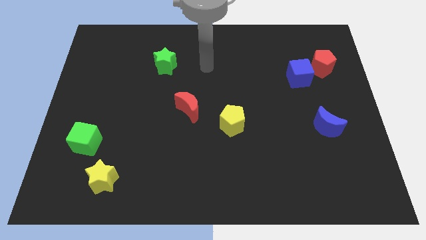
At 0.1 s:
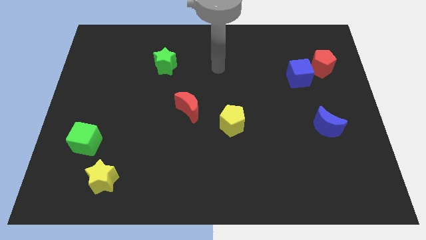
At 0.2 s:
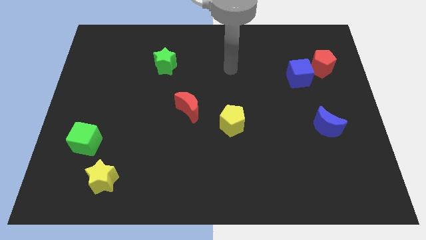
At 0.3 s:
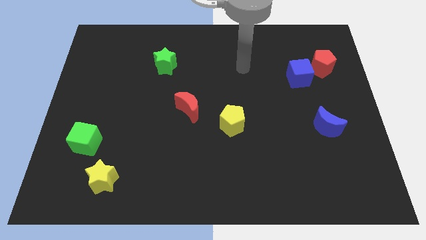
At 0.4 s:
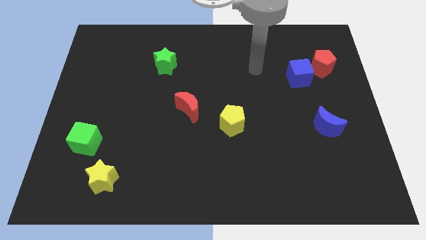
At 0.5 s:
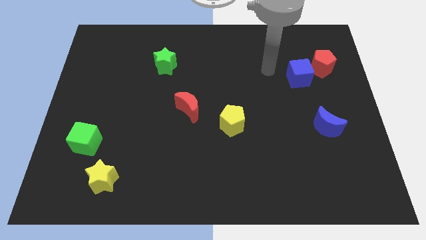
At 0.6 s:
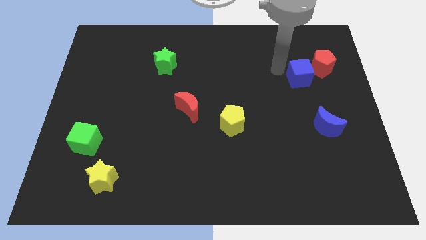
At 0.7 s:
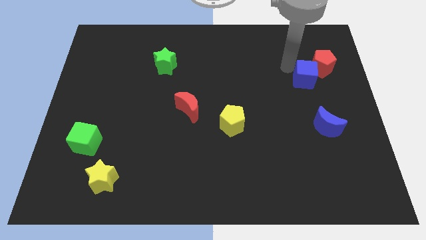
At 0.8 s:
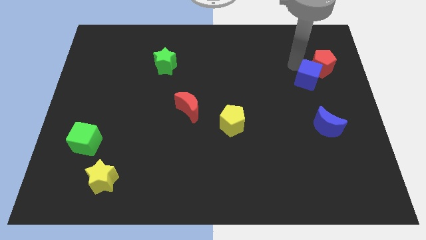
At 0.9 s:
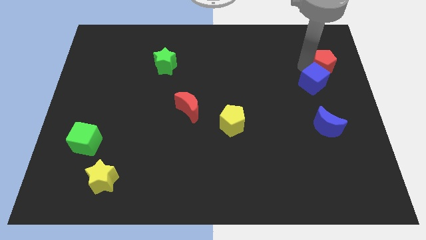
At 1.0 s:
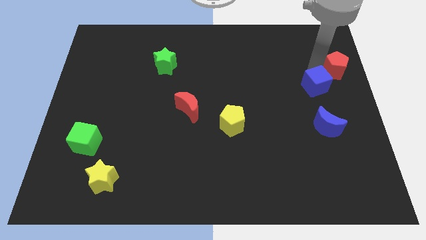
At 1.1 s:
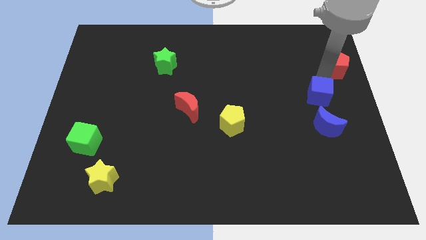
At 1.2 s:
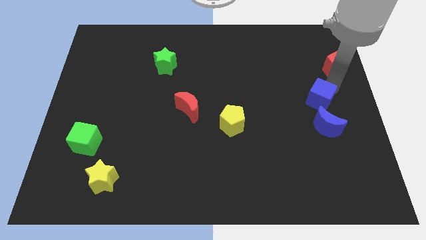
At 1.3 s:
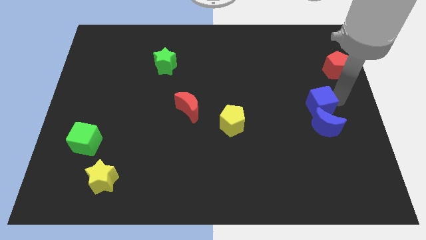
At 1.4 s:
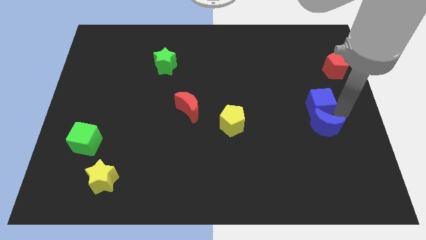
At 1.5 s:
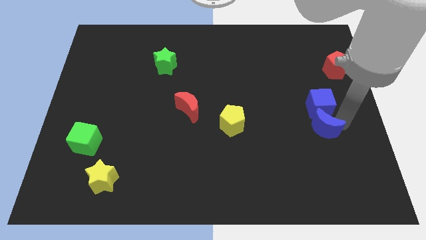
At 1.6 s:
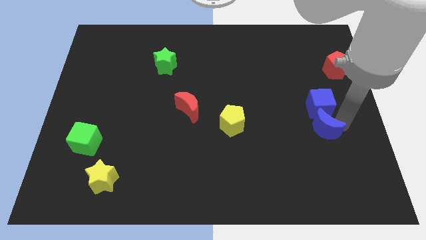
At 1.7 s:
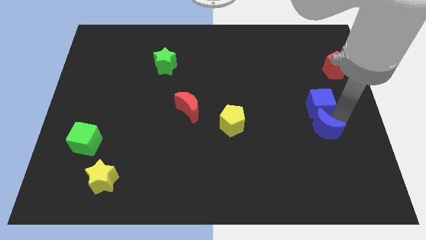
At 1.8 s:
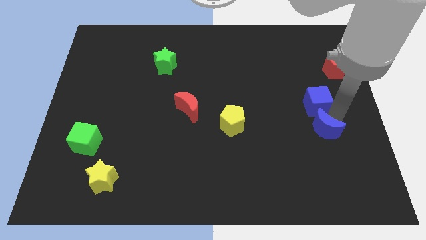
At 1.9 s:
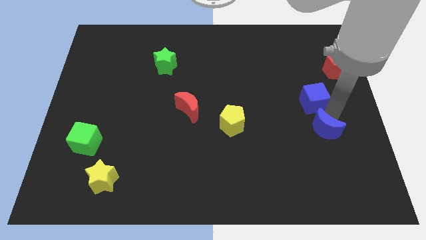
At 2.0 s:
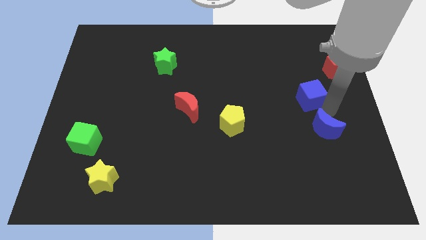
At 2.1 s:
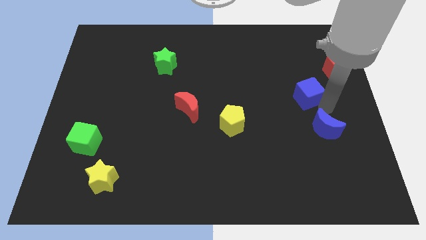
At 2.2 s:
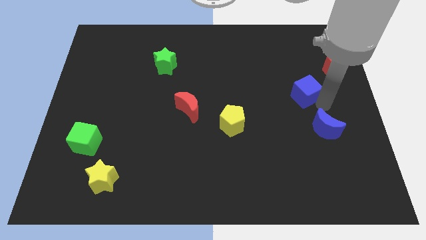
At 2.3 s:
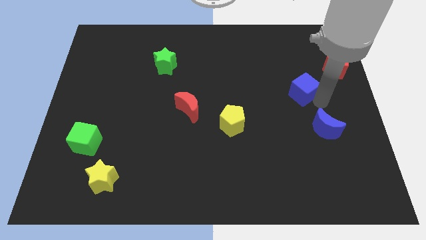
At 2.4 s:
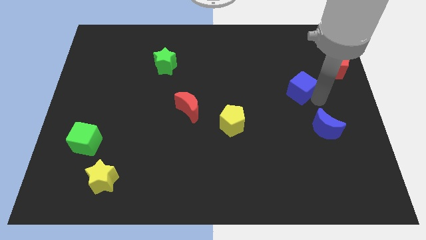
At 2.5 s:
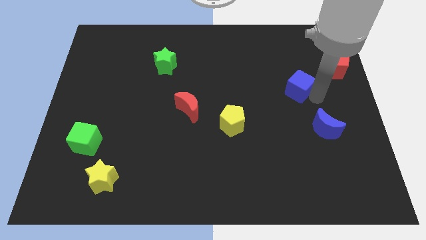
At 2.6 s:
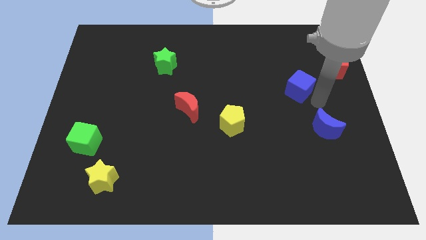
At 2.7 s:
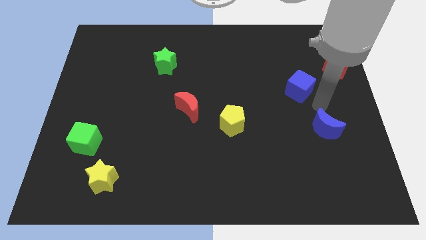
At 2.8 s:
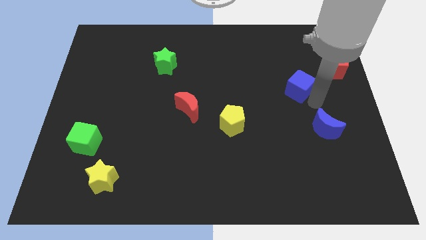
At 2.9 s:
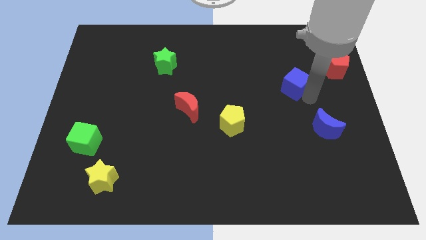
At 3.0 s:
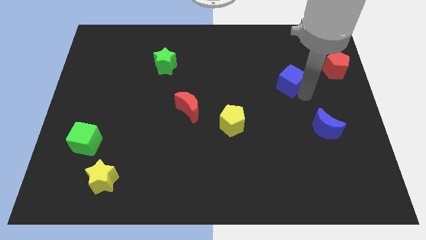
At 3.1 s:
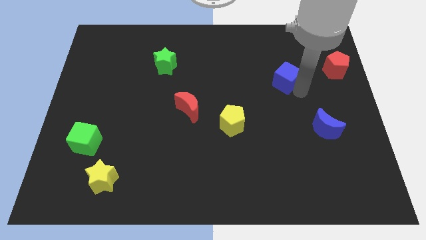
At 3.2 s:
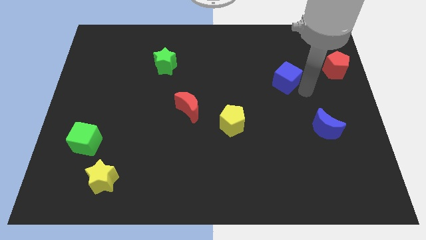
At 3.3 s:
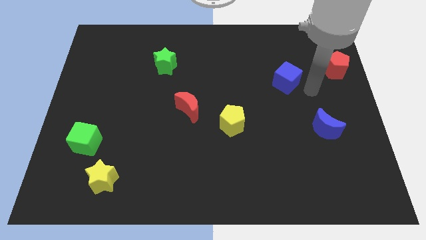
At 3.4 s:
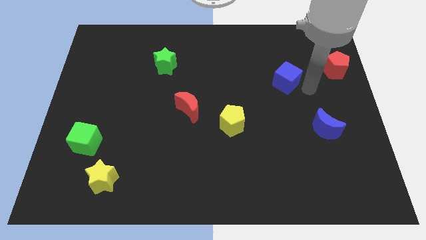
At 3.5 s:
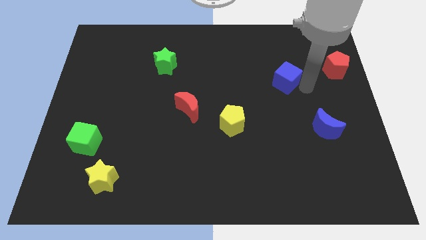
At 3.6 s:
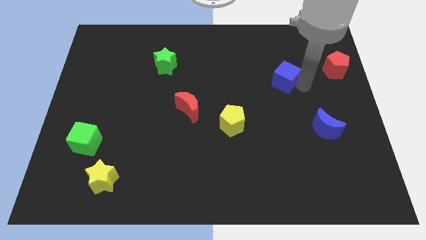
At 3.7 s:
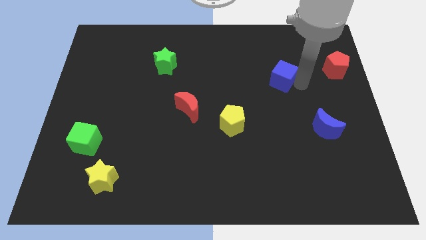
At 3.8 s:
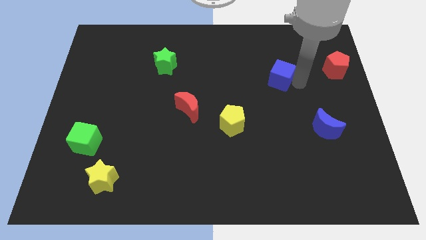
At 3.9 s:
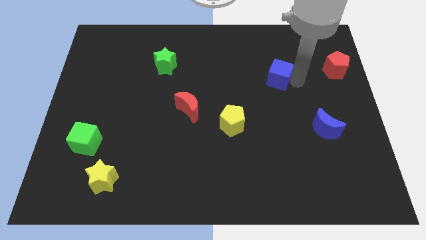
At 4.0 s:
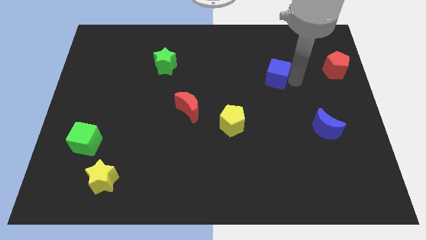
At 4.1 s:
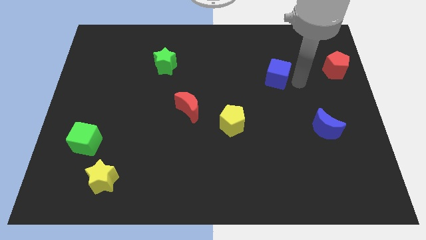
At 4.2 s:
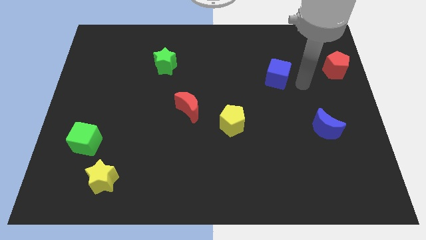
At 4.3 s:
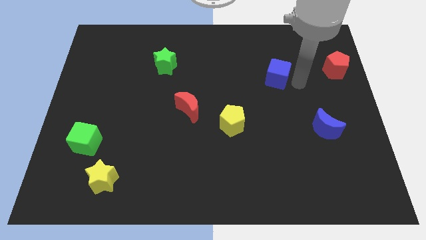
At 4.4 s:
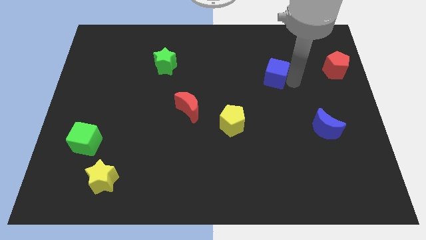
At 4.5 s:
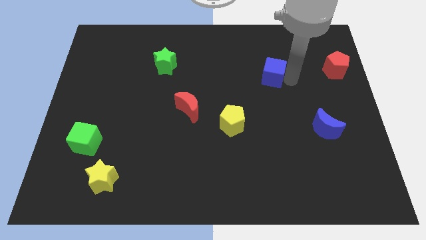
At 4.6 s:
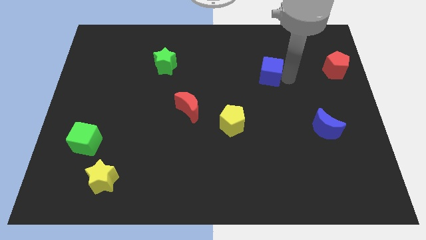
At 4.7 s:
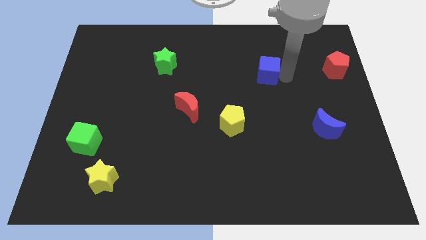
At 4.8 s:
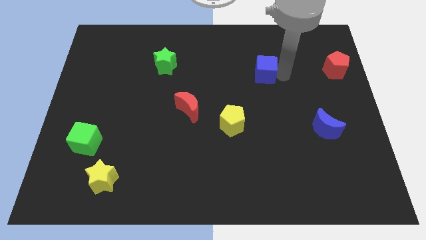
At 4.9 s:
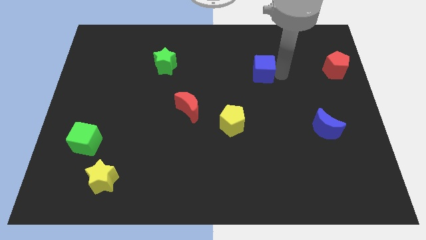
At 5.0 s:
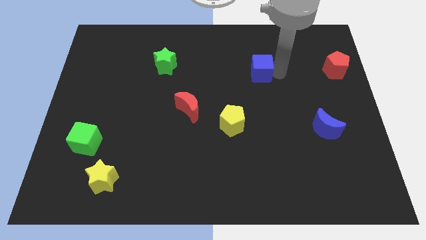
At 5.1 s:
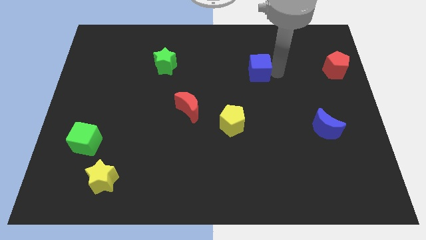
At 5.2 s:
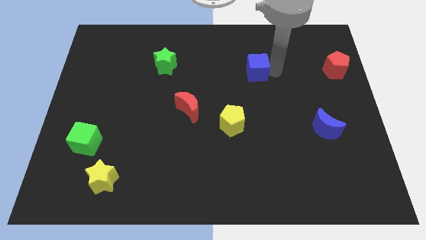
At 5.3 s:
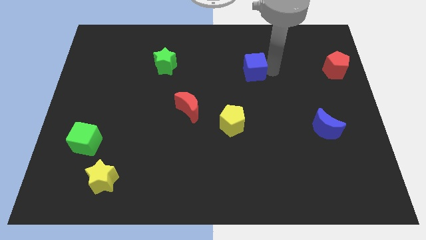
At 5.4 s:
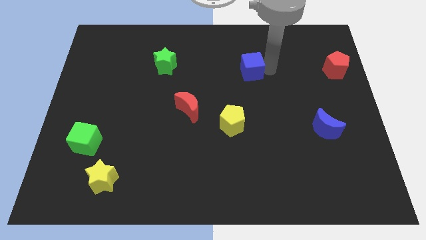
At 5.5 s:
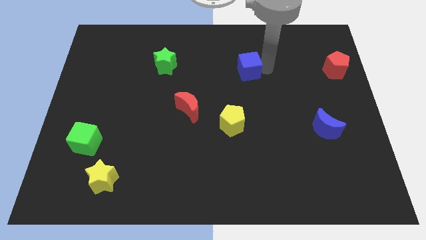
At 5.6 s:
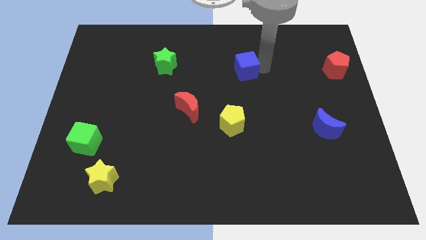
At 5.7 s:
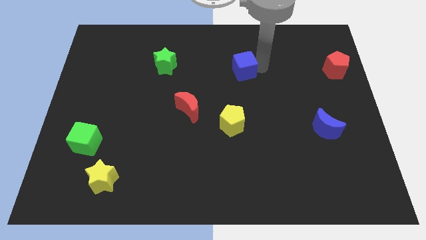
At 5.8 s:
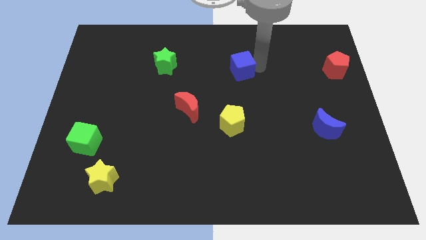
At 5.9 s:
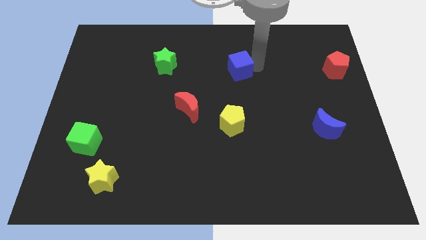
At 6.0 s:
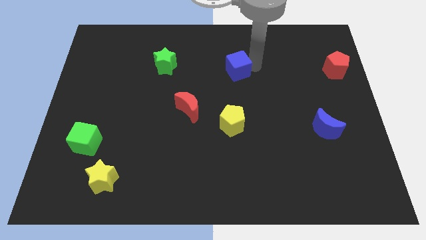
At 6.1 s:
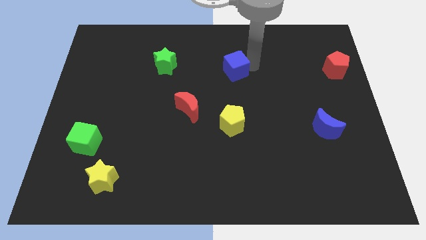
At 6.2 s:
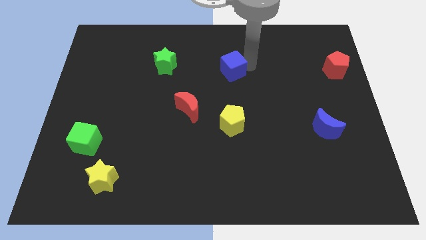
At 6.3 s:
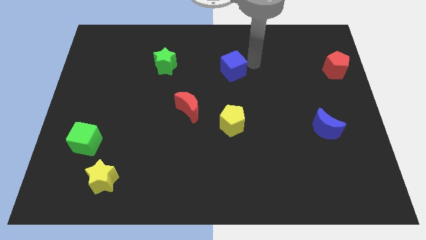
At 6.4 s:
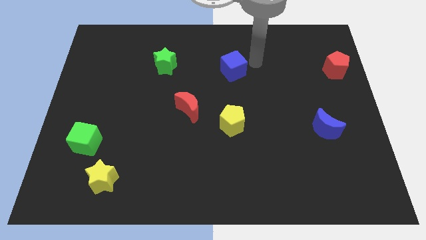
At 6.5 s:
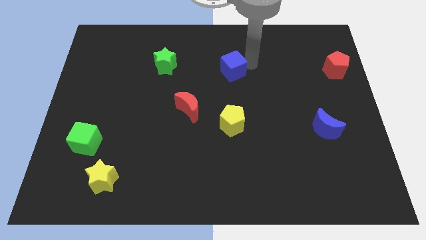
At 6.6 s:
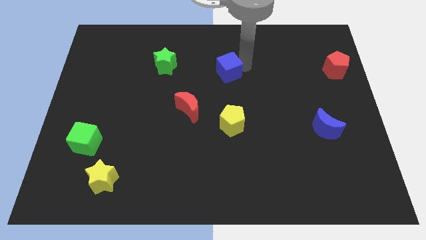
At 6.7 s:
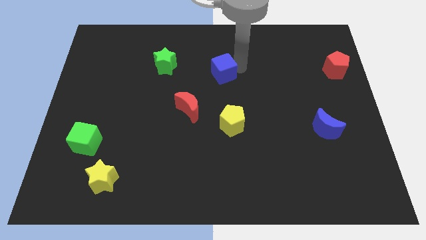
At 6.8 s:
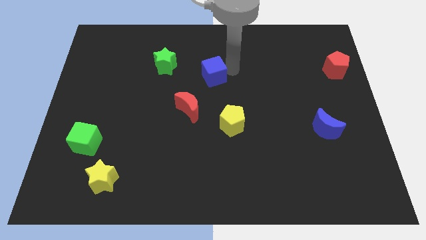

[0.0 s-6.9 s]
push the blue cube to the left

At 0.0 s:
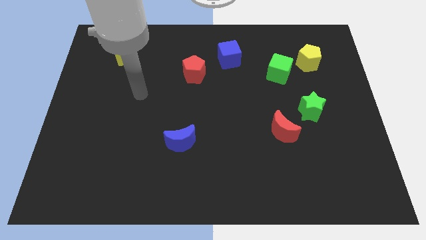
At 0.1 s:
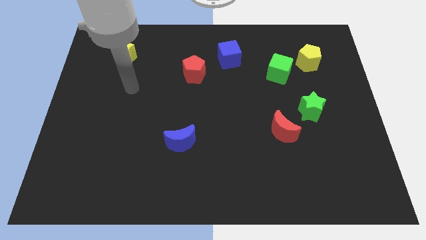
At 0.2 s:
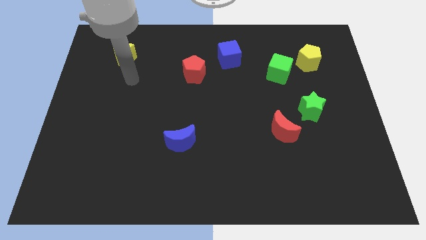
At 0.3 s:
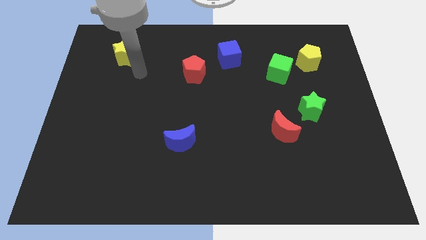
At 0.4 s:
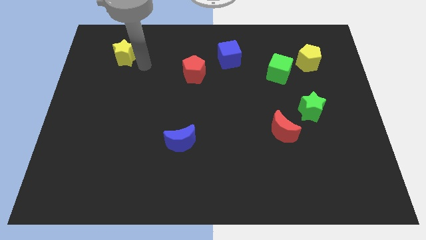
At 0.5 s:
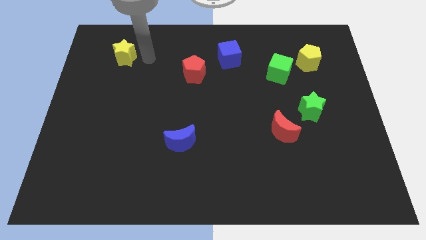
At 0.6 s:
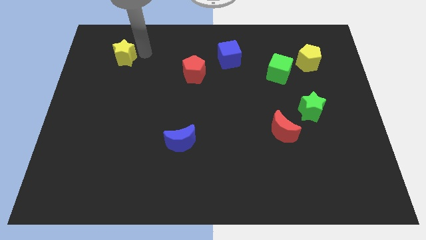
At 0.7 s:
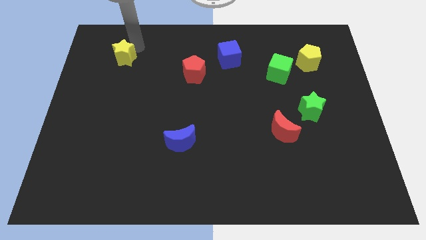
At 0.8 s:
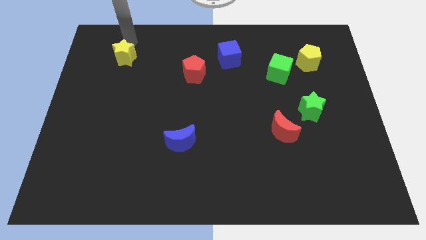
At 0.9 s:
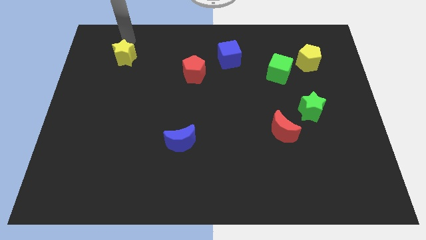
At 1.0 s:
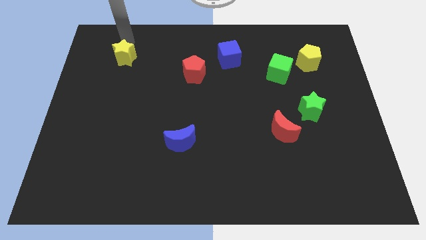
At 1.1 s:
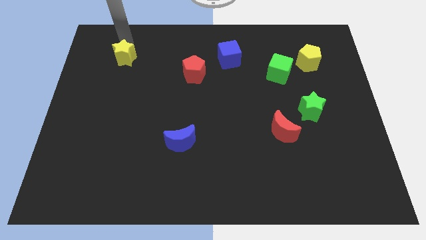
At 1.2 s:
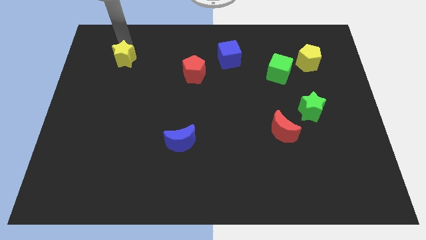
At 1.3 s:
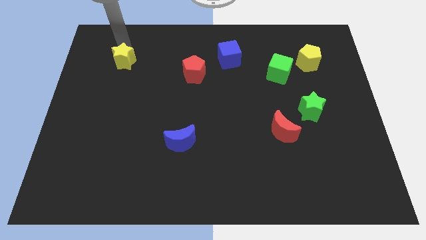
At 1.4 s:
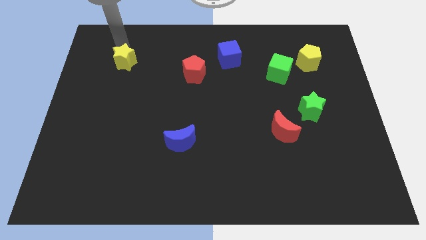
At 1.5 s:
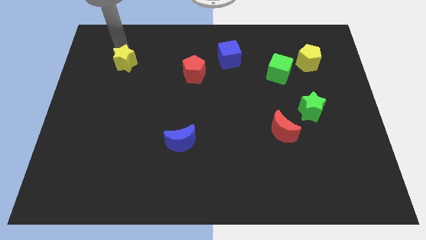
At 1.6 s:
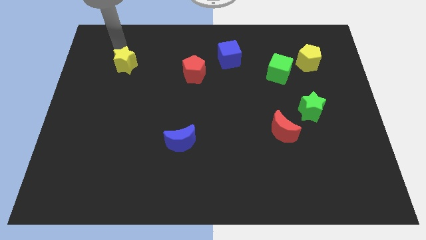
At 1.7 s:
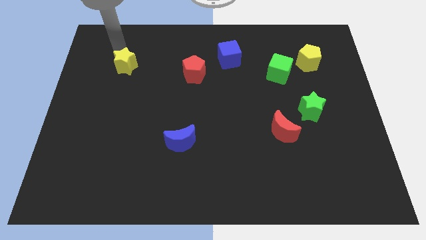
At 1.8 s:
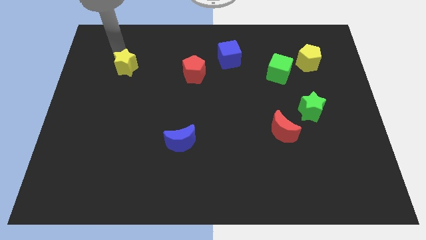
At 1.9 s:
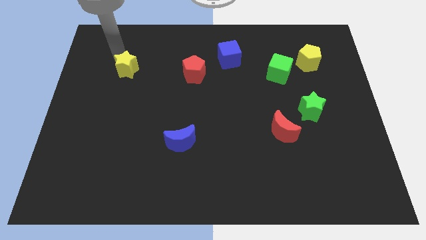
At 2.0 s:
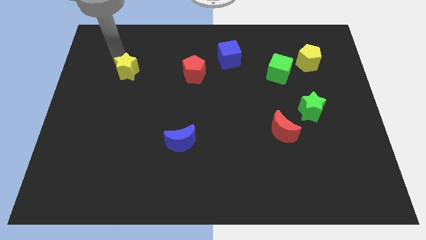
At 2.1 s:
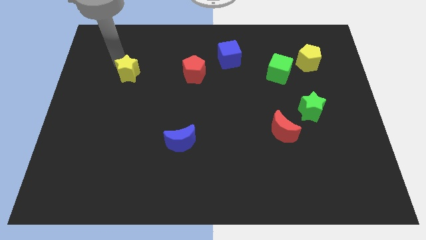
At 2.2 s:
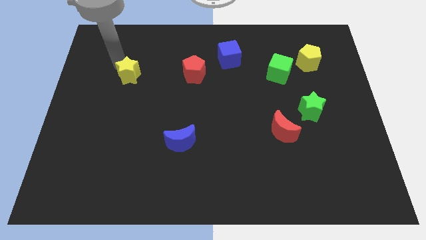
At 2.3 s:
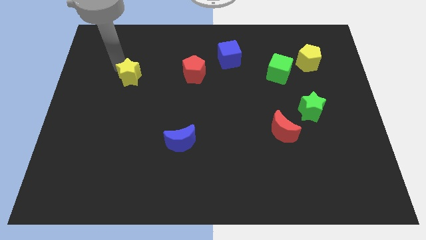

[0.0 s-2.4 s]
push the yellow star down somewhat
